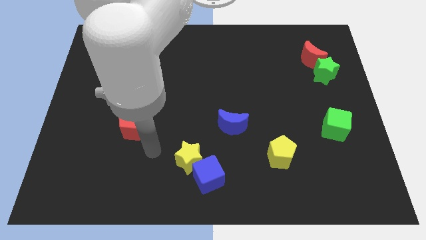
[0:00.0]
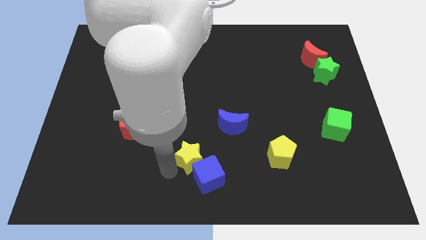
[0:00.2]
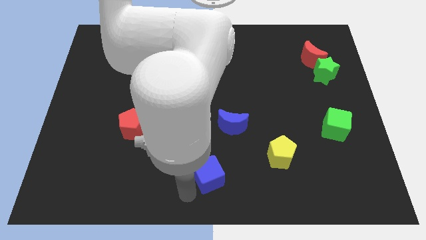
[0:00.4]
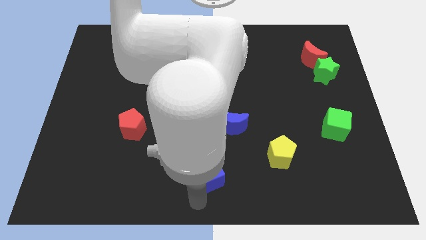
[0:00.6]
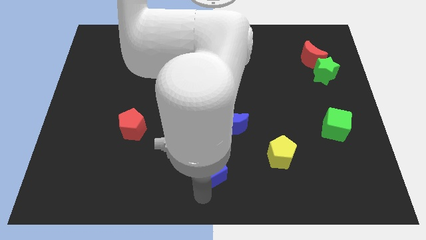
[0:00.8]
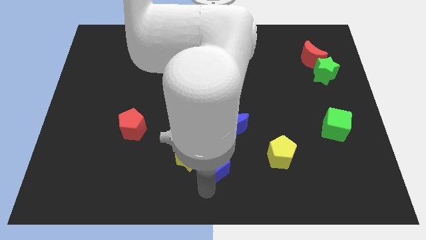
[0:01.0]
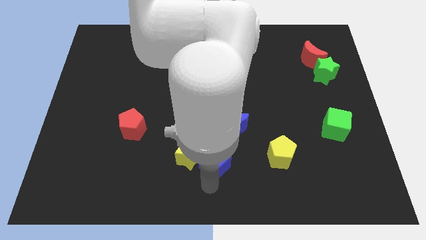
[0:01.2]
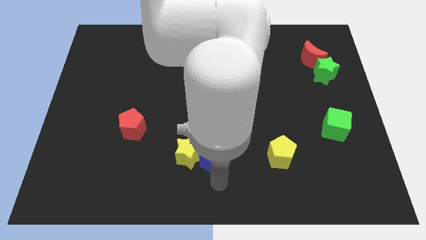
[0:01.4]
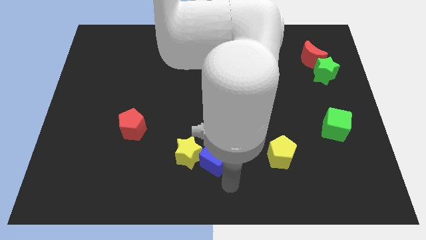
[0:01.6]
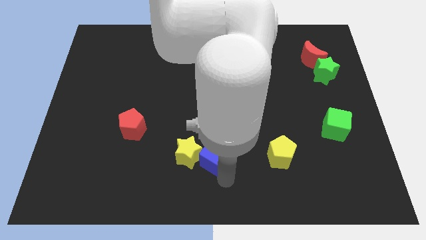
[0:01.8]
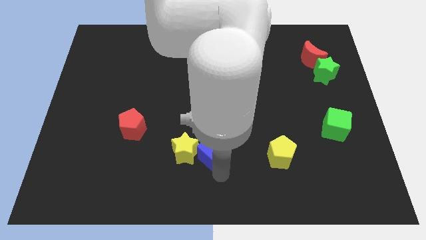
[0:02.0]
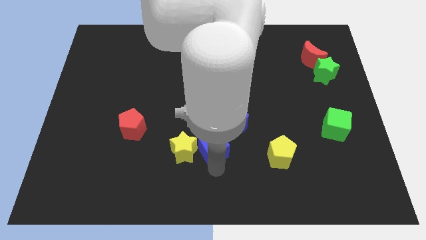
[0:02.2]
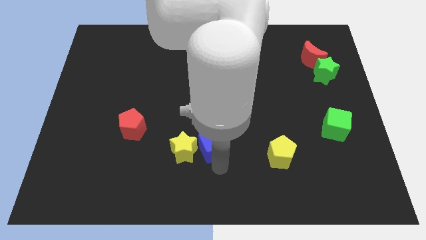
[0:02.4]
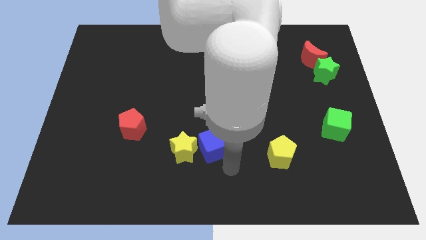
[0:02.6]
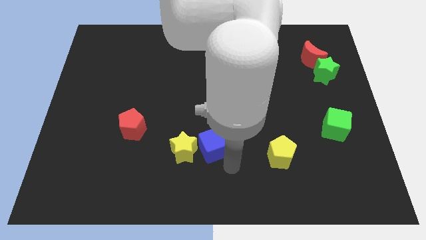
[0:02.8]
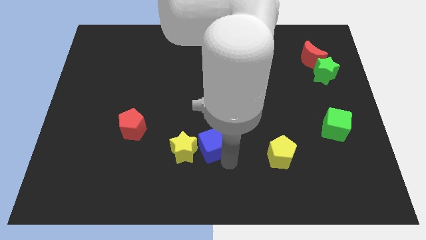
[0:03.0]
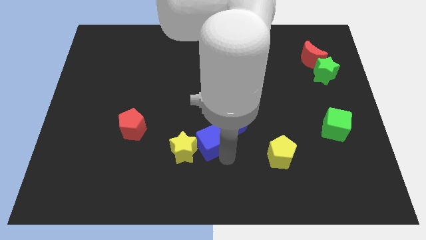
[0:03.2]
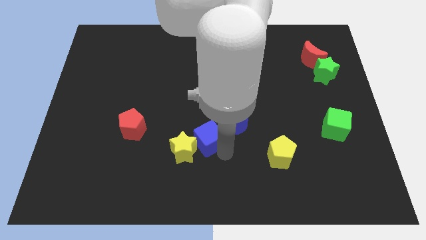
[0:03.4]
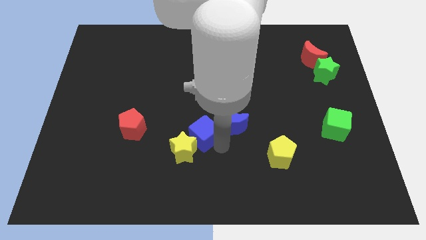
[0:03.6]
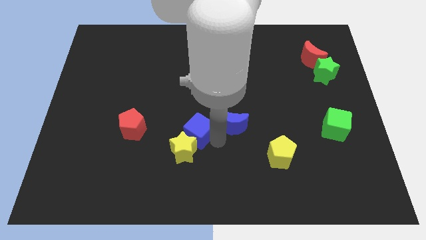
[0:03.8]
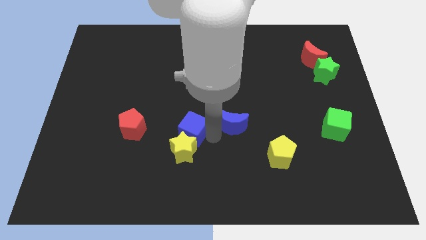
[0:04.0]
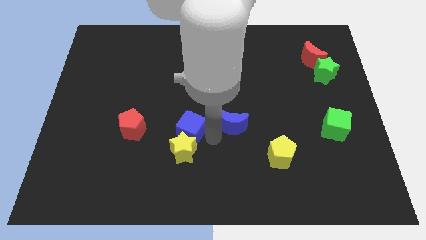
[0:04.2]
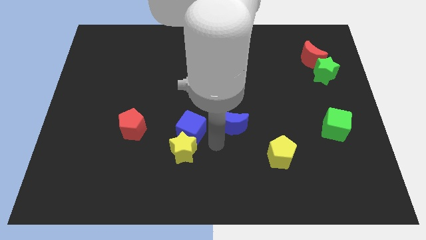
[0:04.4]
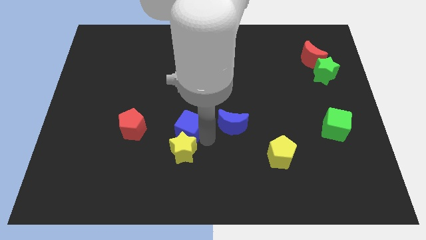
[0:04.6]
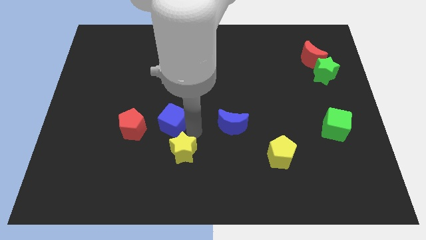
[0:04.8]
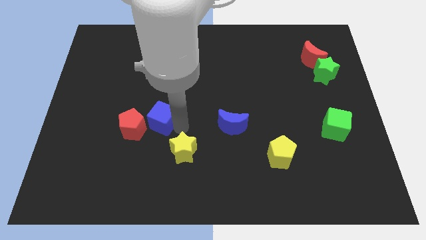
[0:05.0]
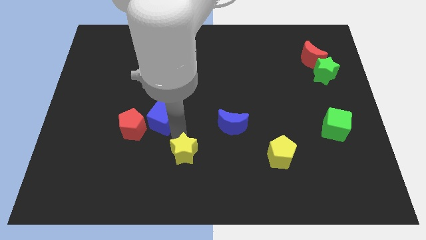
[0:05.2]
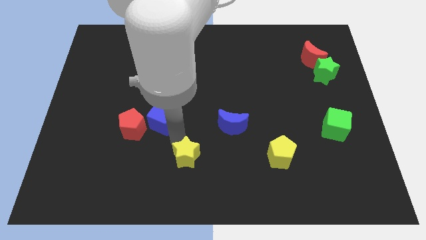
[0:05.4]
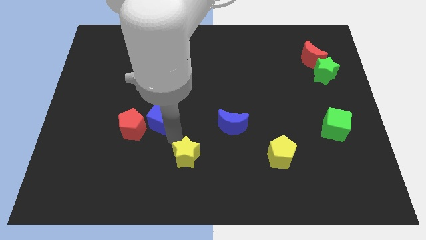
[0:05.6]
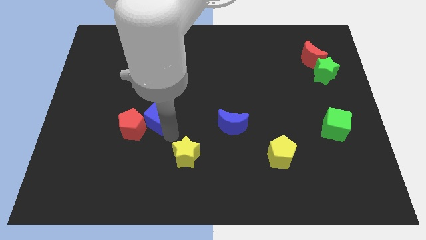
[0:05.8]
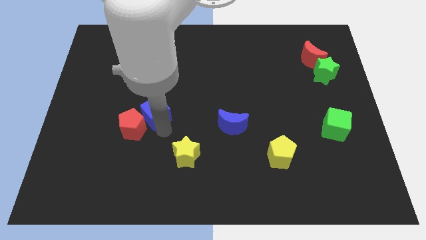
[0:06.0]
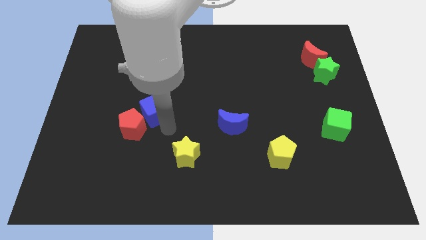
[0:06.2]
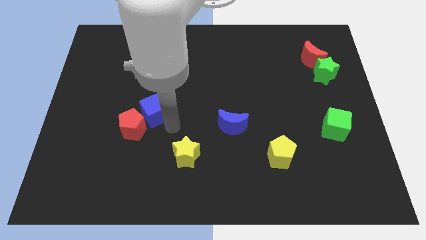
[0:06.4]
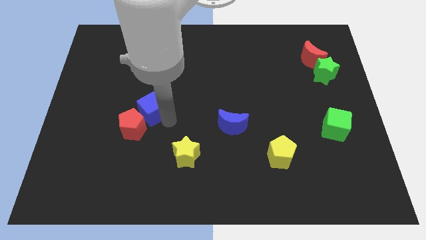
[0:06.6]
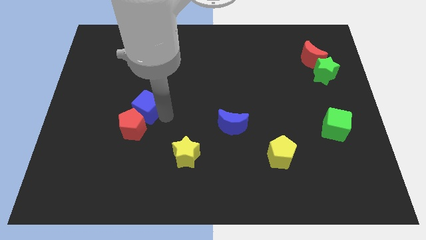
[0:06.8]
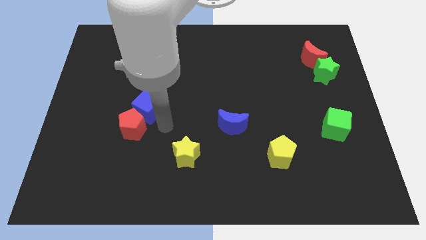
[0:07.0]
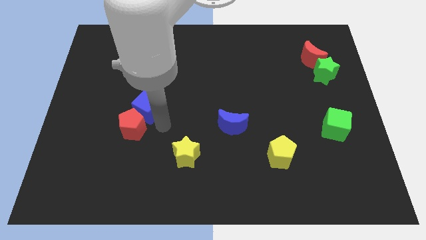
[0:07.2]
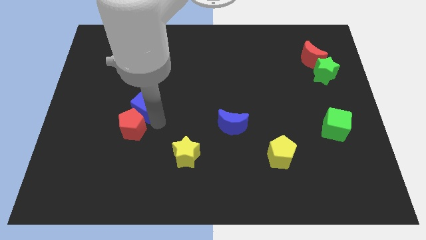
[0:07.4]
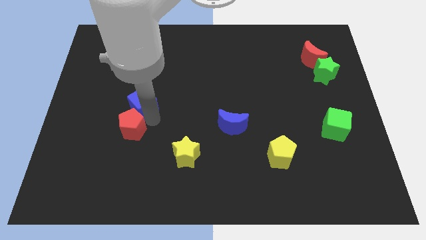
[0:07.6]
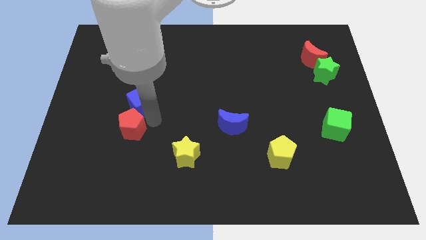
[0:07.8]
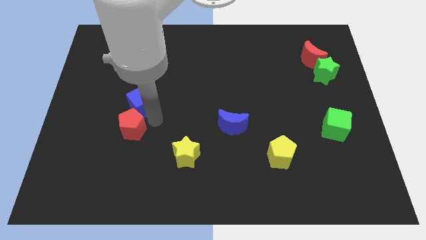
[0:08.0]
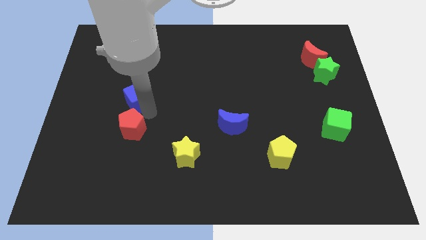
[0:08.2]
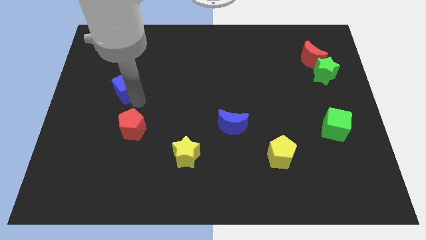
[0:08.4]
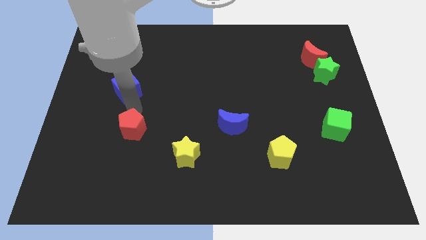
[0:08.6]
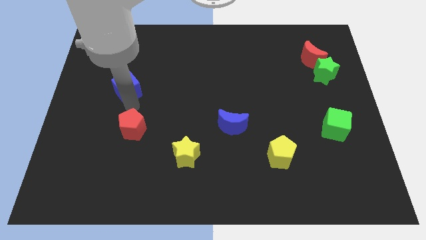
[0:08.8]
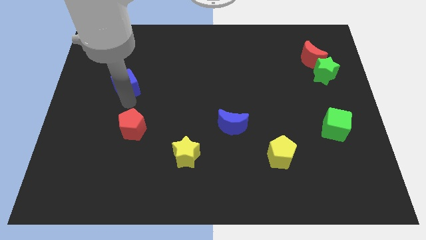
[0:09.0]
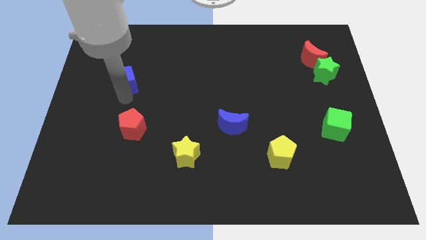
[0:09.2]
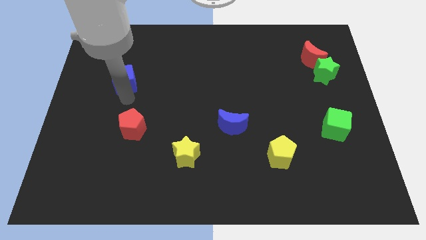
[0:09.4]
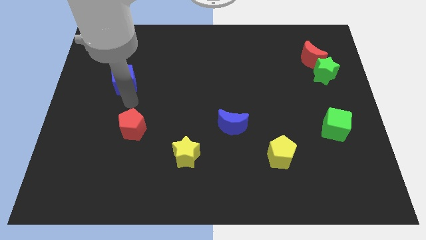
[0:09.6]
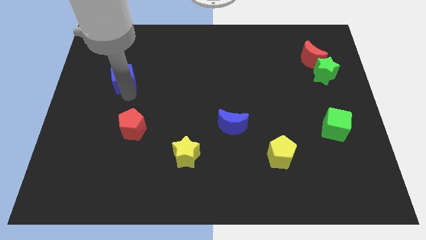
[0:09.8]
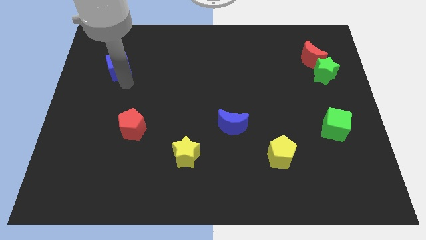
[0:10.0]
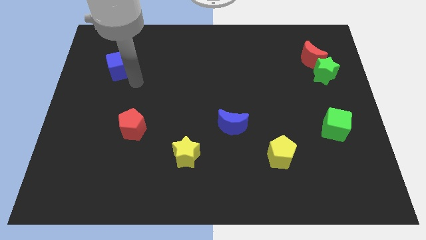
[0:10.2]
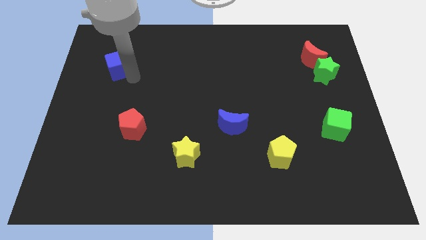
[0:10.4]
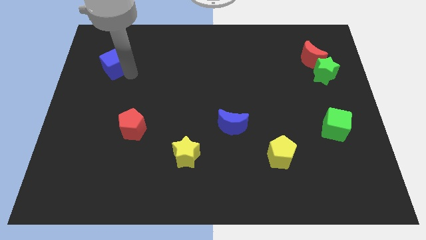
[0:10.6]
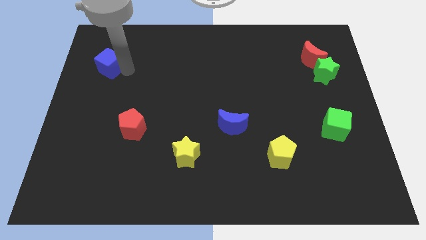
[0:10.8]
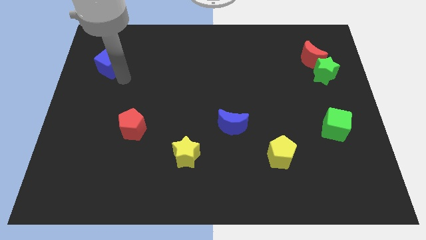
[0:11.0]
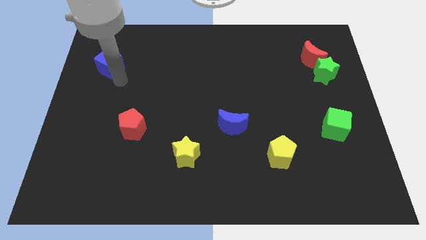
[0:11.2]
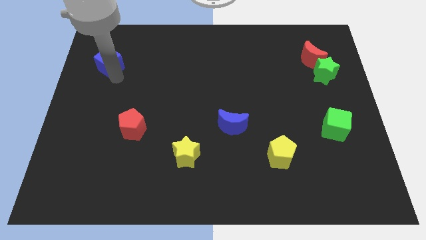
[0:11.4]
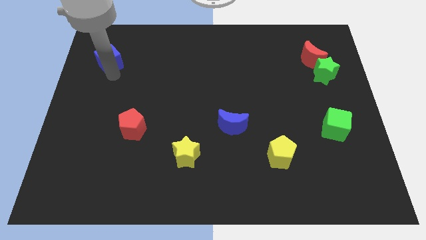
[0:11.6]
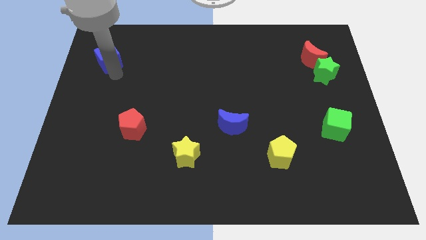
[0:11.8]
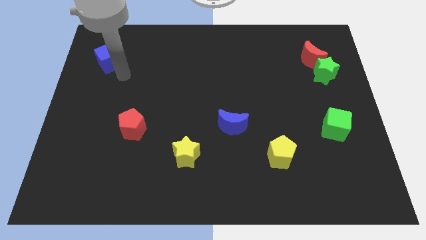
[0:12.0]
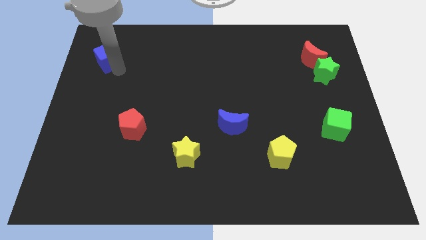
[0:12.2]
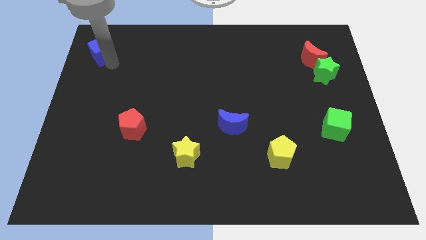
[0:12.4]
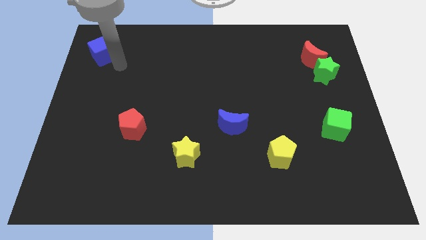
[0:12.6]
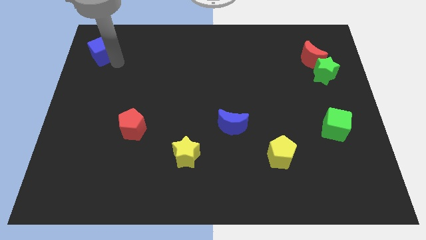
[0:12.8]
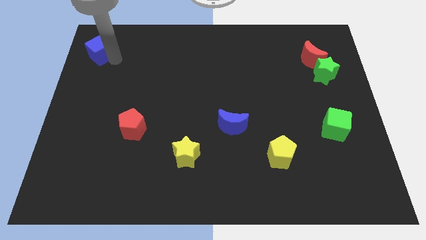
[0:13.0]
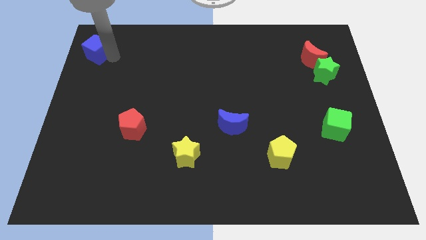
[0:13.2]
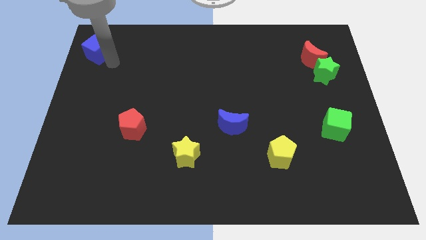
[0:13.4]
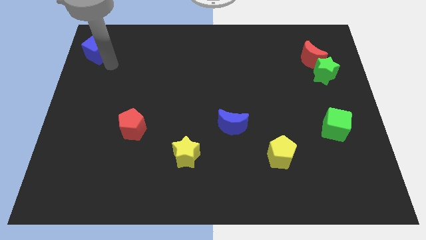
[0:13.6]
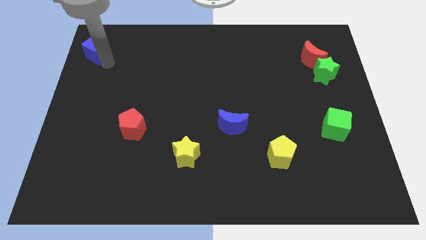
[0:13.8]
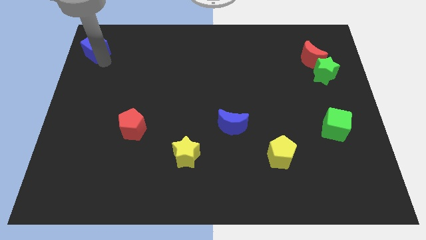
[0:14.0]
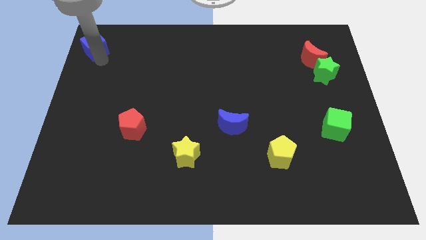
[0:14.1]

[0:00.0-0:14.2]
push the blue cube to the upper left corner
